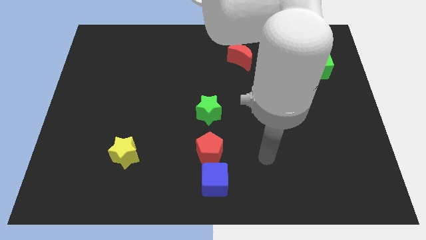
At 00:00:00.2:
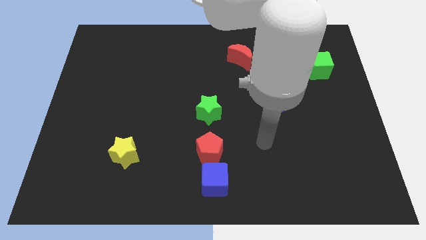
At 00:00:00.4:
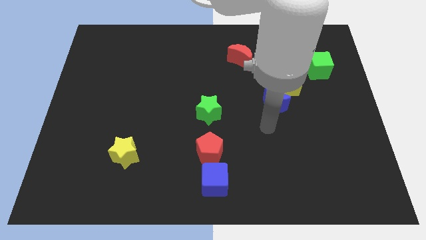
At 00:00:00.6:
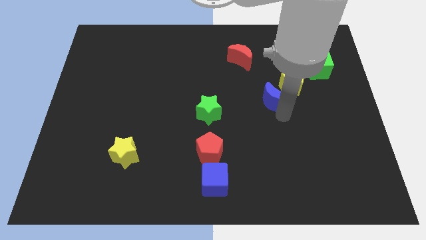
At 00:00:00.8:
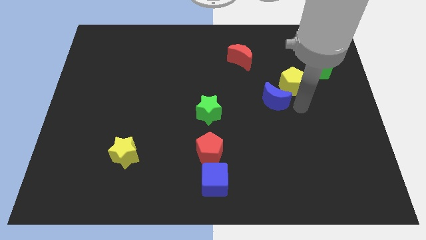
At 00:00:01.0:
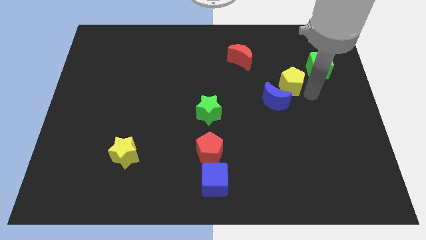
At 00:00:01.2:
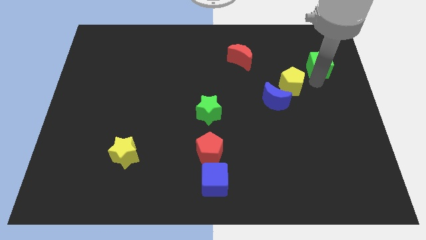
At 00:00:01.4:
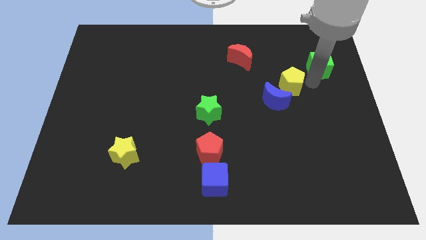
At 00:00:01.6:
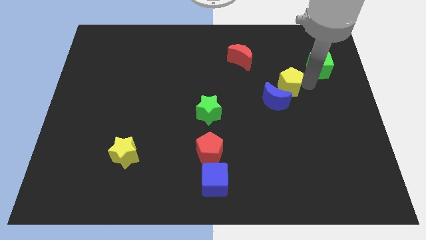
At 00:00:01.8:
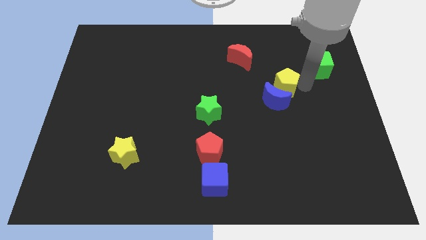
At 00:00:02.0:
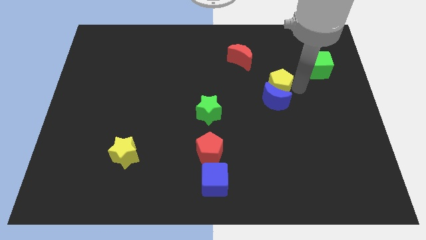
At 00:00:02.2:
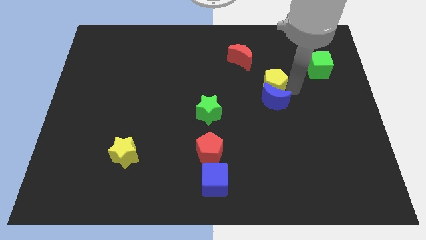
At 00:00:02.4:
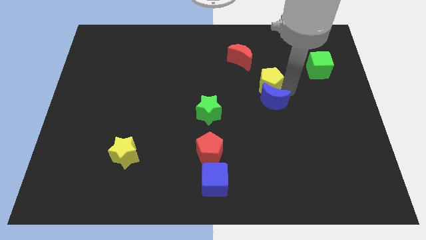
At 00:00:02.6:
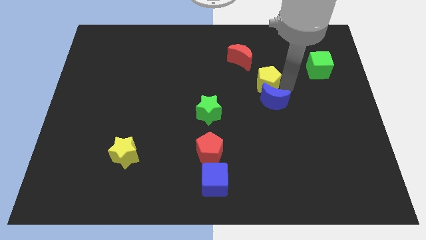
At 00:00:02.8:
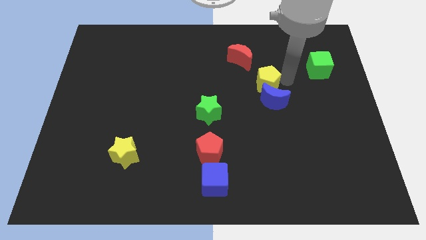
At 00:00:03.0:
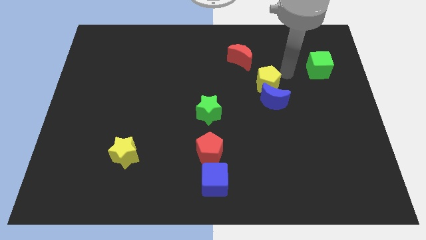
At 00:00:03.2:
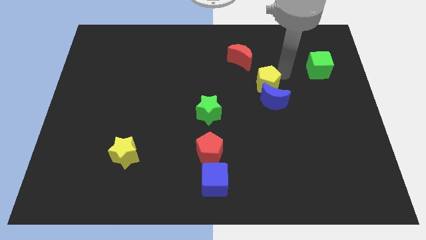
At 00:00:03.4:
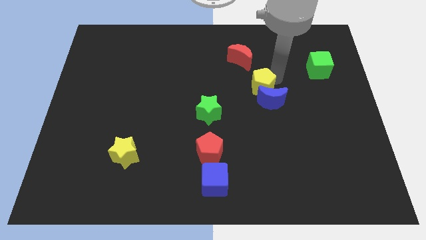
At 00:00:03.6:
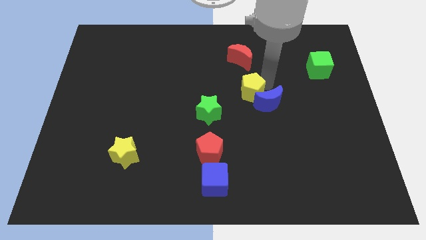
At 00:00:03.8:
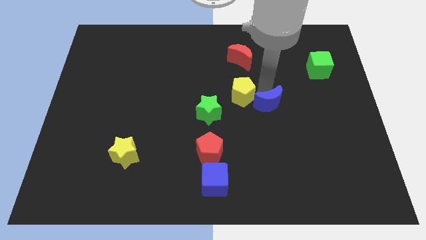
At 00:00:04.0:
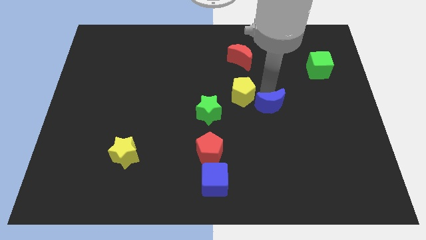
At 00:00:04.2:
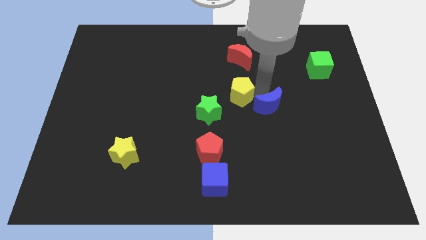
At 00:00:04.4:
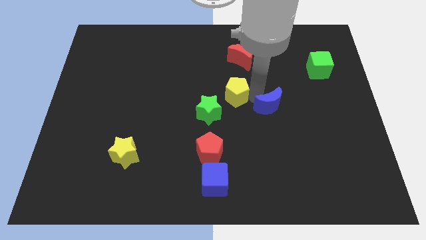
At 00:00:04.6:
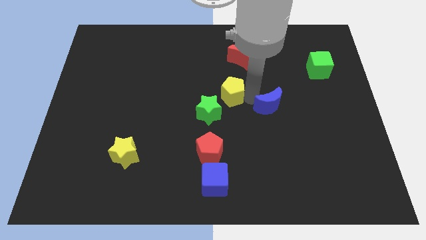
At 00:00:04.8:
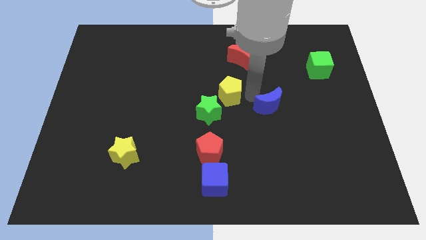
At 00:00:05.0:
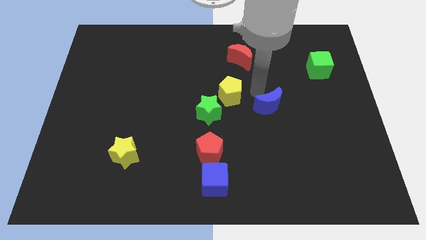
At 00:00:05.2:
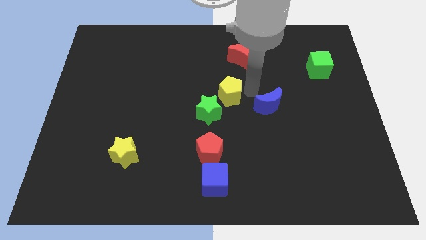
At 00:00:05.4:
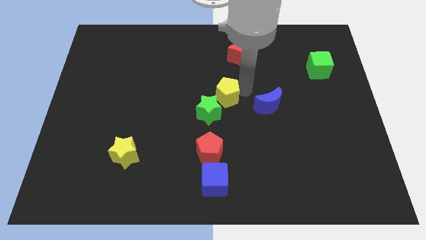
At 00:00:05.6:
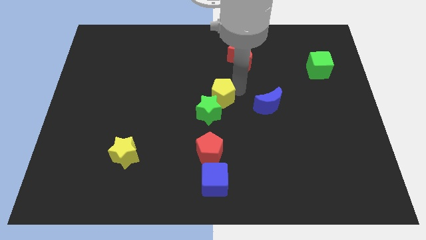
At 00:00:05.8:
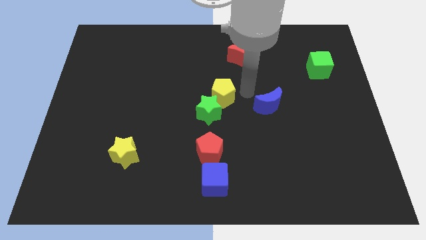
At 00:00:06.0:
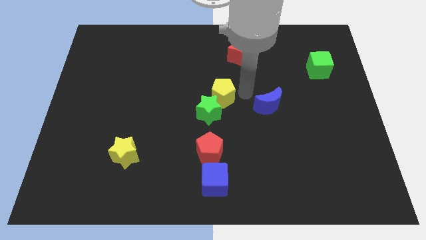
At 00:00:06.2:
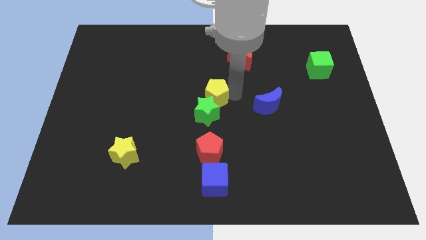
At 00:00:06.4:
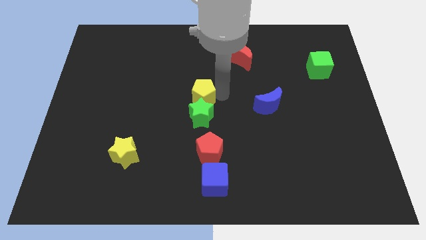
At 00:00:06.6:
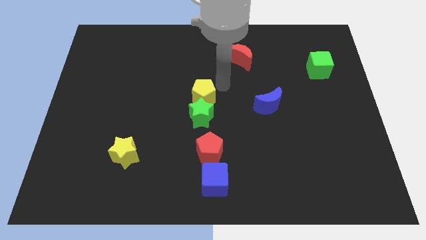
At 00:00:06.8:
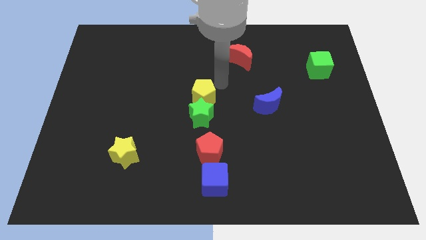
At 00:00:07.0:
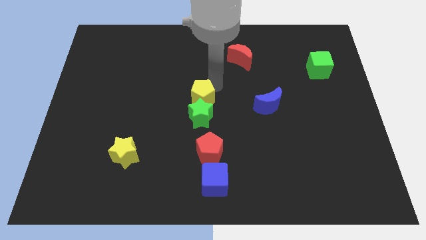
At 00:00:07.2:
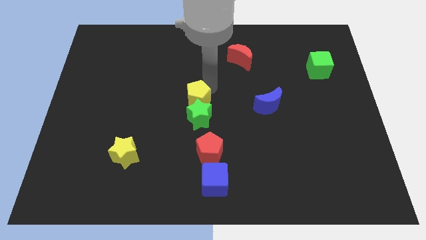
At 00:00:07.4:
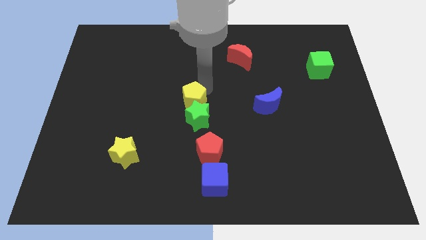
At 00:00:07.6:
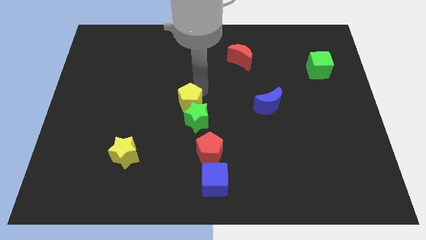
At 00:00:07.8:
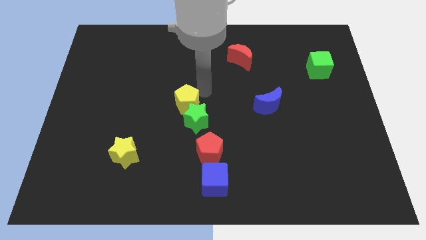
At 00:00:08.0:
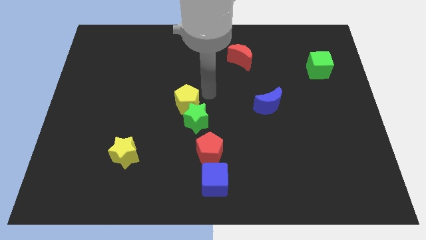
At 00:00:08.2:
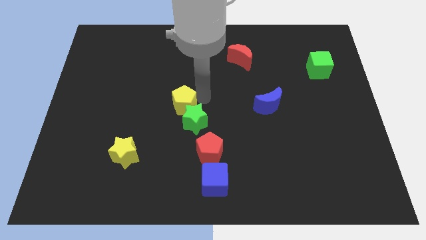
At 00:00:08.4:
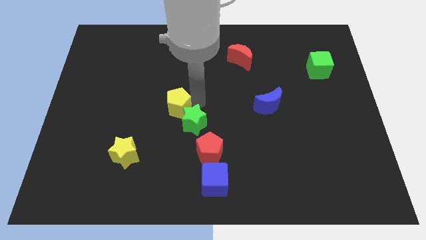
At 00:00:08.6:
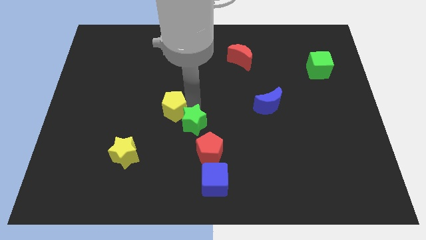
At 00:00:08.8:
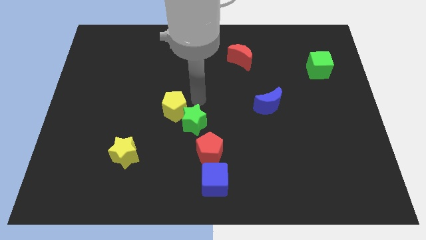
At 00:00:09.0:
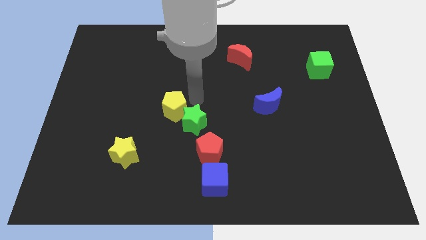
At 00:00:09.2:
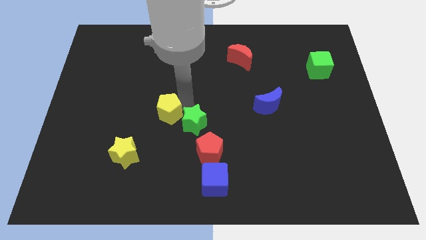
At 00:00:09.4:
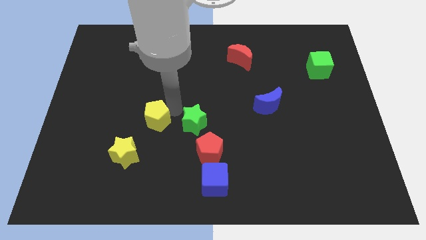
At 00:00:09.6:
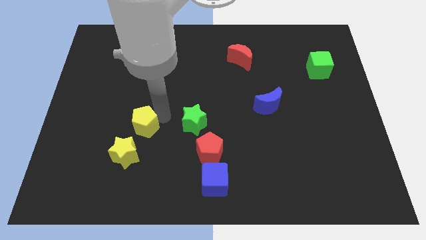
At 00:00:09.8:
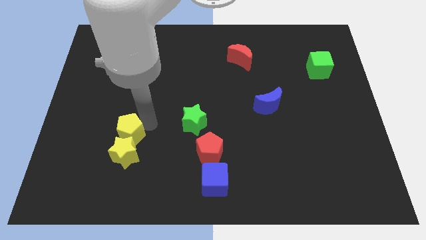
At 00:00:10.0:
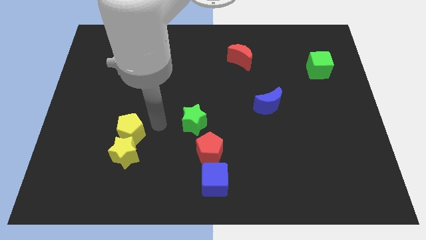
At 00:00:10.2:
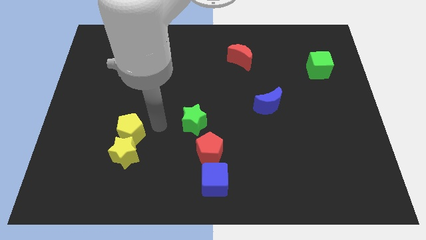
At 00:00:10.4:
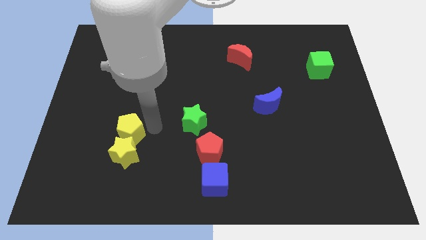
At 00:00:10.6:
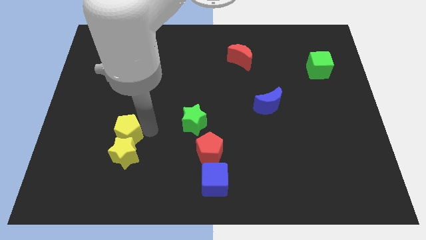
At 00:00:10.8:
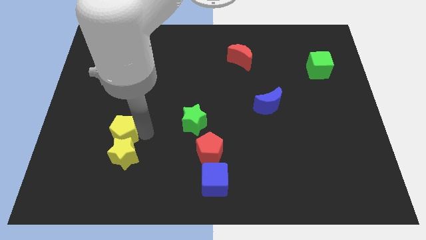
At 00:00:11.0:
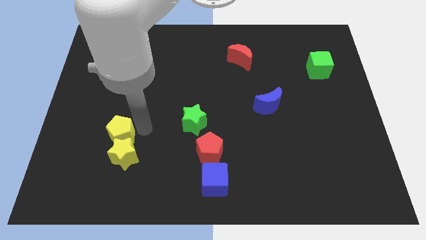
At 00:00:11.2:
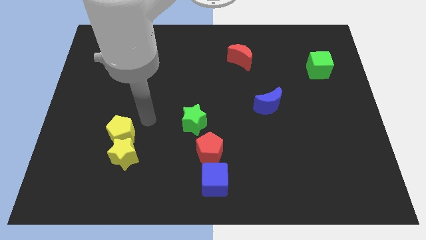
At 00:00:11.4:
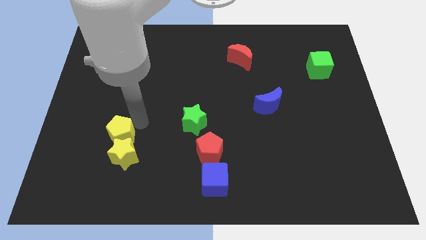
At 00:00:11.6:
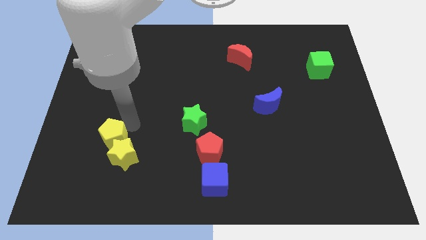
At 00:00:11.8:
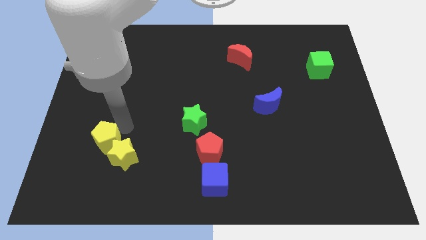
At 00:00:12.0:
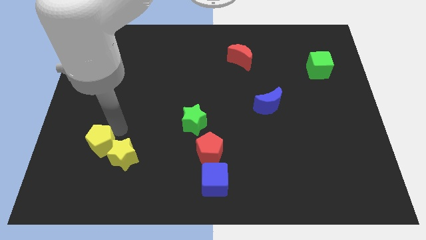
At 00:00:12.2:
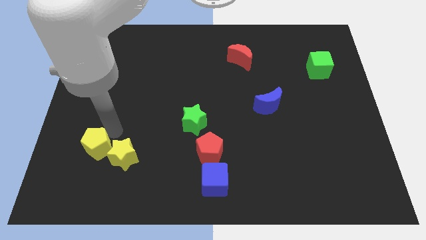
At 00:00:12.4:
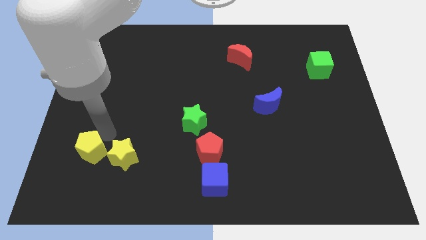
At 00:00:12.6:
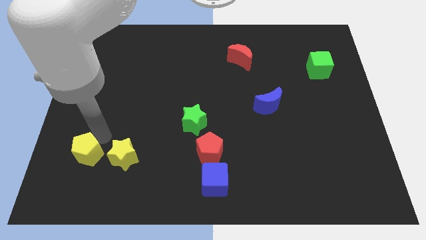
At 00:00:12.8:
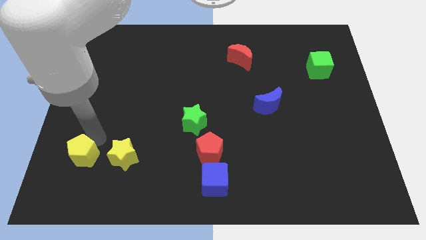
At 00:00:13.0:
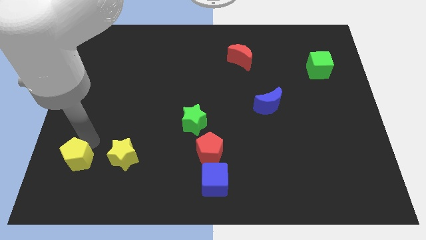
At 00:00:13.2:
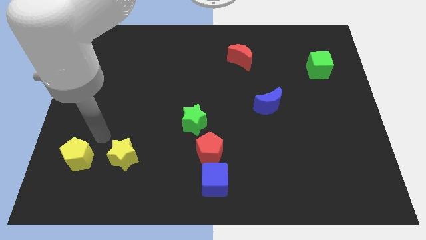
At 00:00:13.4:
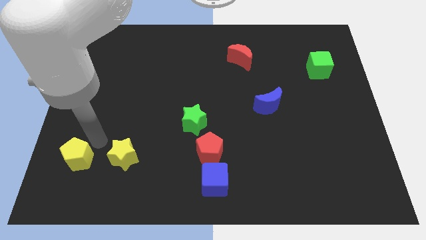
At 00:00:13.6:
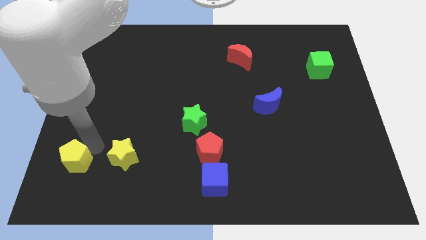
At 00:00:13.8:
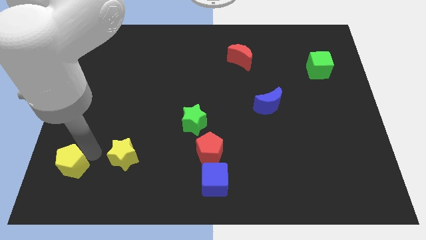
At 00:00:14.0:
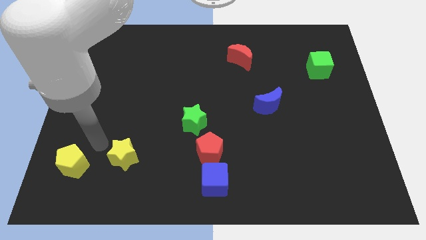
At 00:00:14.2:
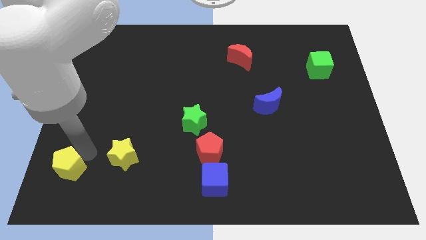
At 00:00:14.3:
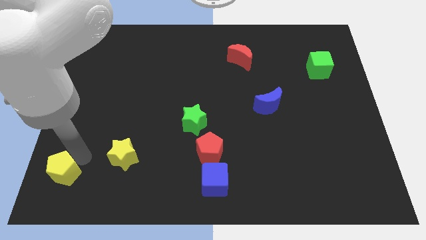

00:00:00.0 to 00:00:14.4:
move the yellow pentagon to the lower left corner
